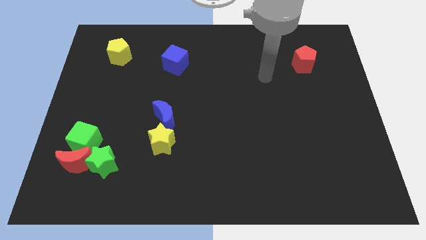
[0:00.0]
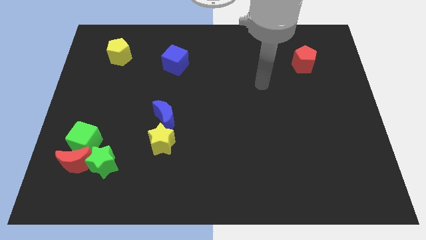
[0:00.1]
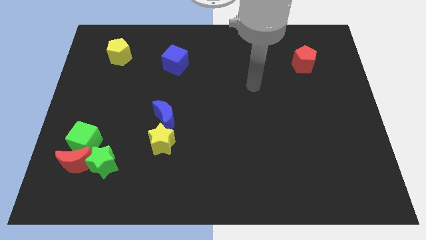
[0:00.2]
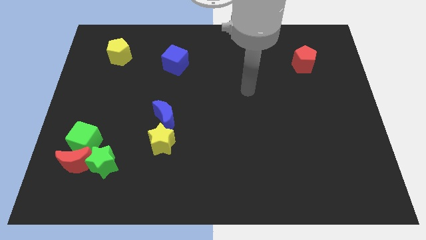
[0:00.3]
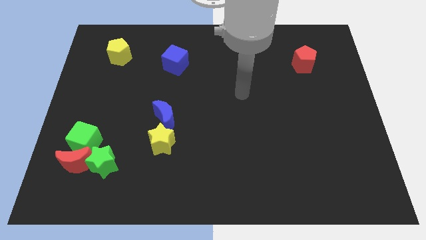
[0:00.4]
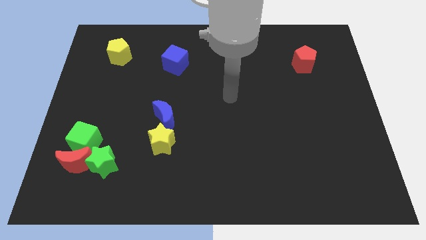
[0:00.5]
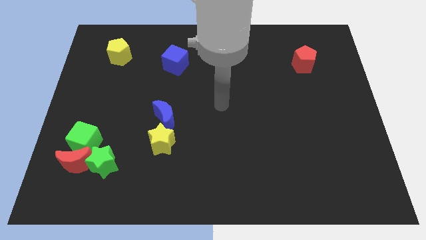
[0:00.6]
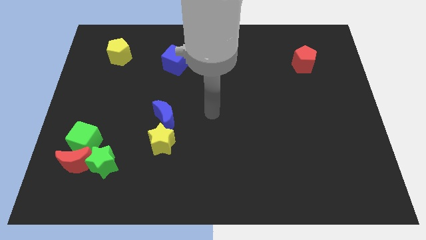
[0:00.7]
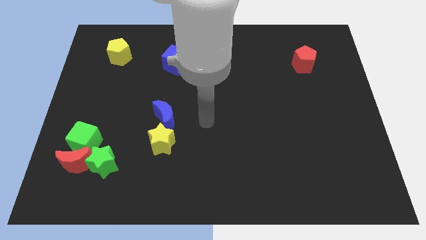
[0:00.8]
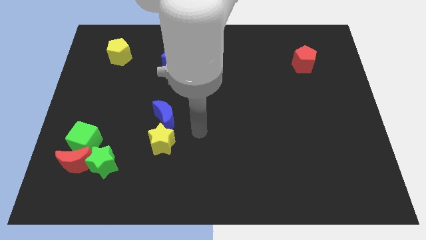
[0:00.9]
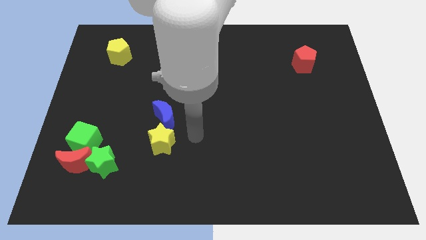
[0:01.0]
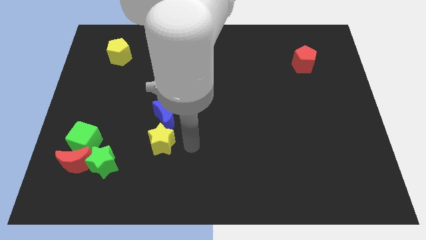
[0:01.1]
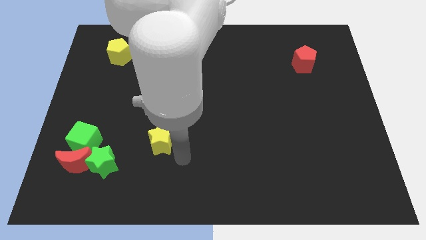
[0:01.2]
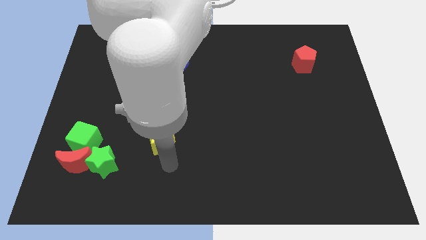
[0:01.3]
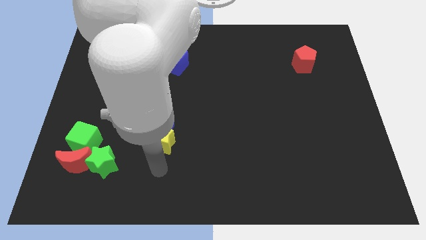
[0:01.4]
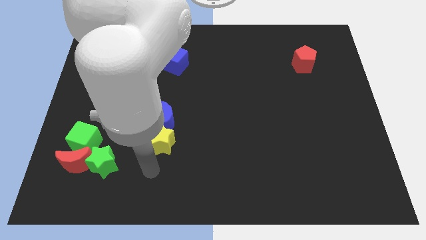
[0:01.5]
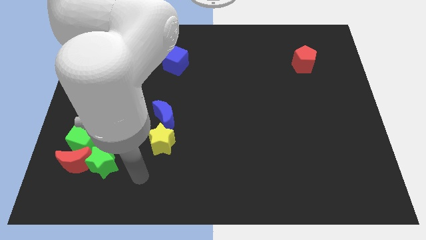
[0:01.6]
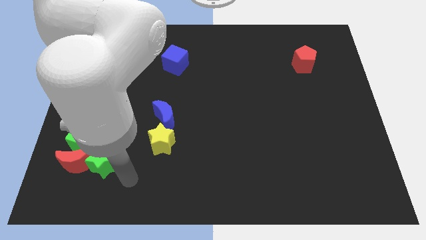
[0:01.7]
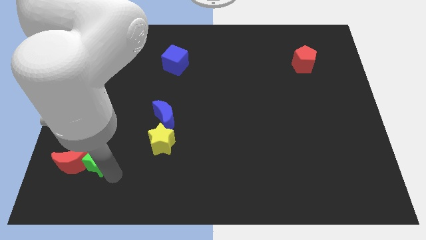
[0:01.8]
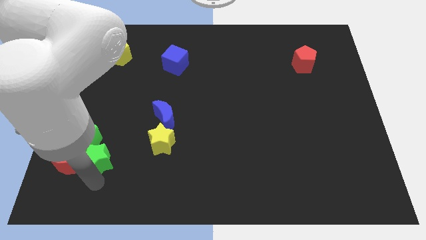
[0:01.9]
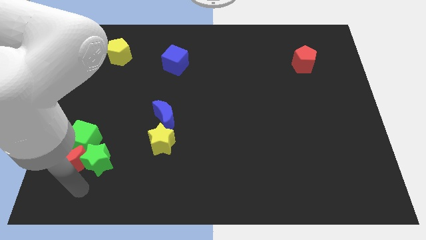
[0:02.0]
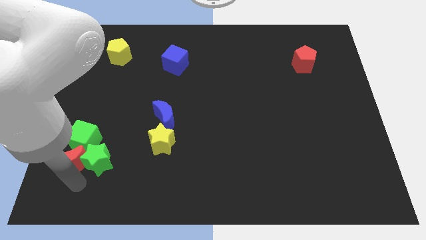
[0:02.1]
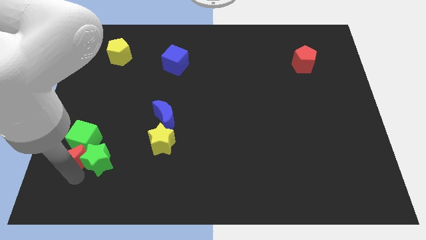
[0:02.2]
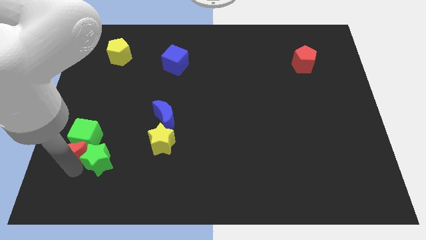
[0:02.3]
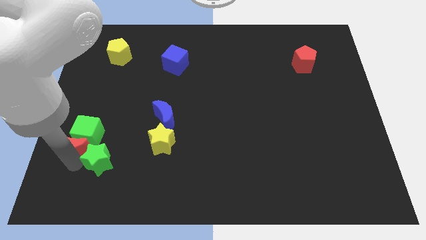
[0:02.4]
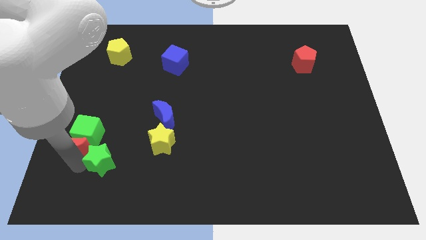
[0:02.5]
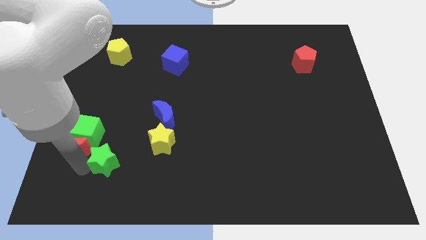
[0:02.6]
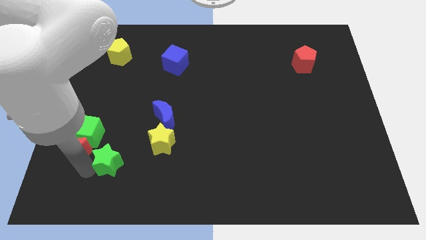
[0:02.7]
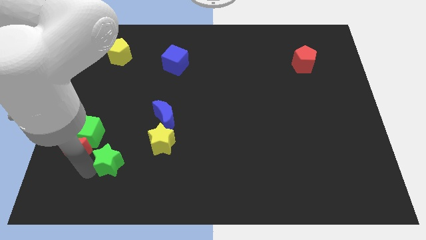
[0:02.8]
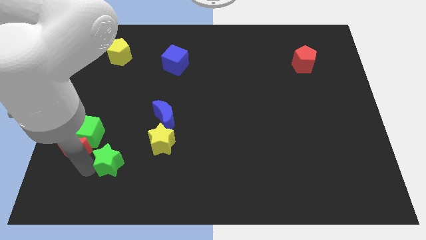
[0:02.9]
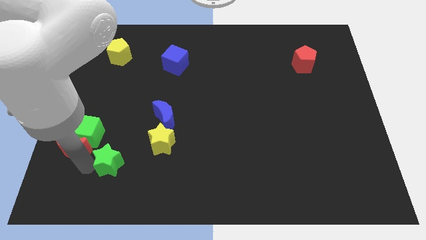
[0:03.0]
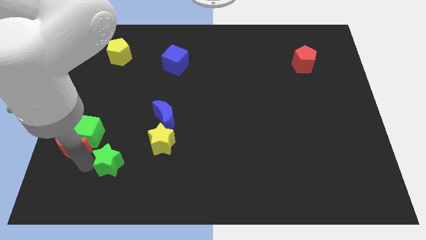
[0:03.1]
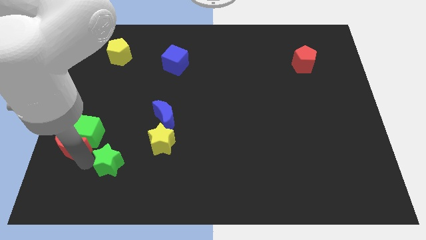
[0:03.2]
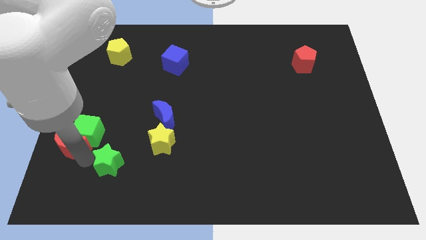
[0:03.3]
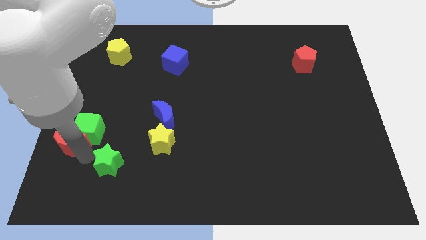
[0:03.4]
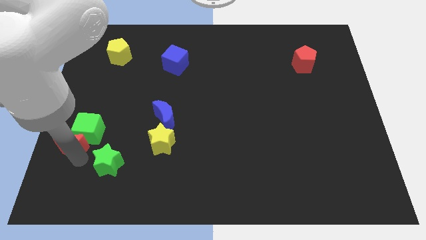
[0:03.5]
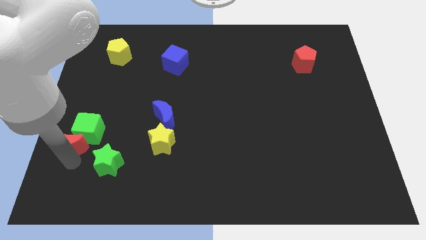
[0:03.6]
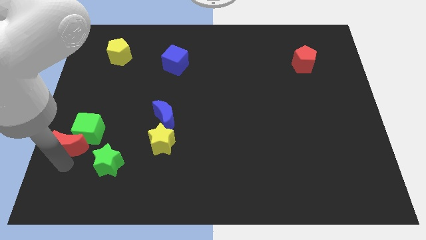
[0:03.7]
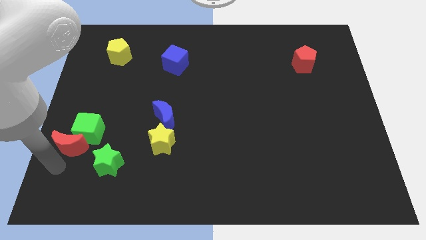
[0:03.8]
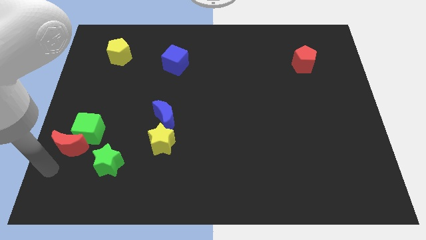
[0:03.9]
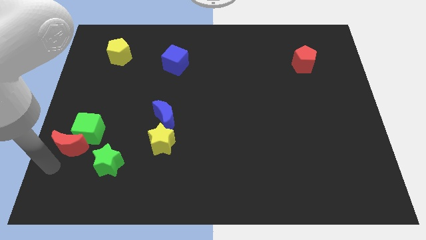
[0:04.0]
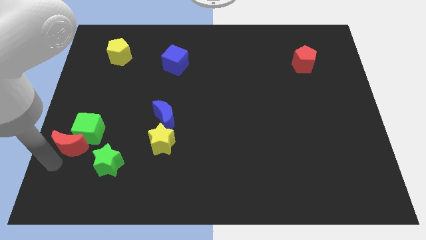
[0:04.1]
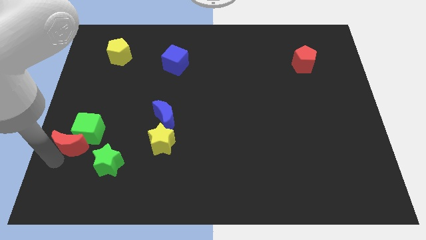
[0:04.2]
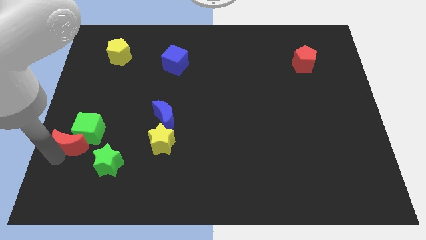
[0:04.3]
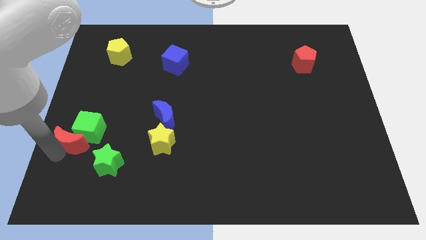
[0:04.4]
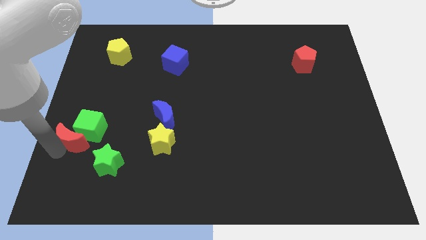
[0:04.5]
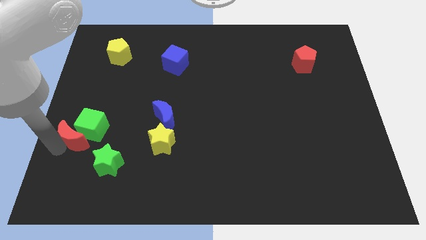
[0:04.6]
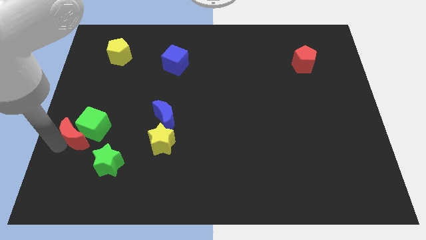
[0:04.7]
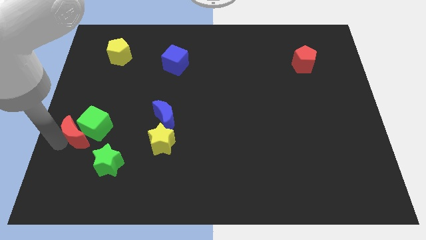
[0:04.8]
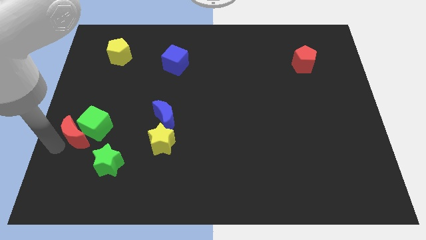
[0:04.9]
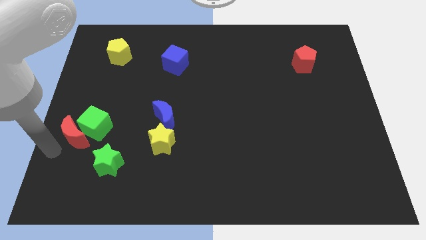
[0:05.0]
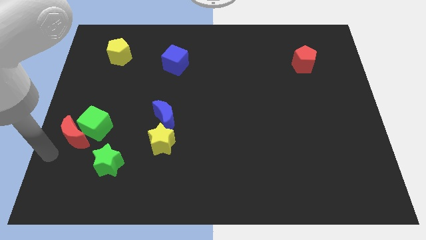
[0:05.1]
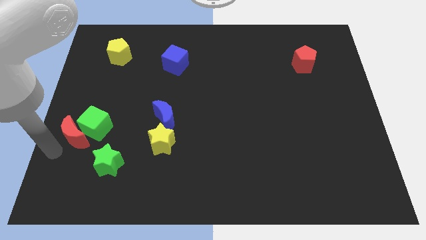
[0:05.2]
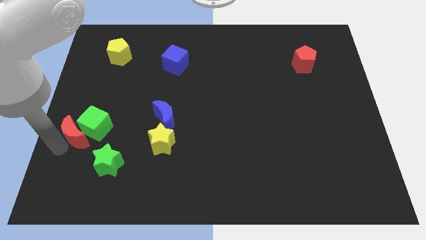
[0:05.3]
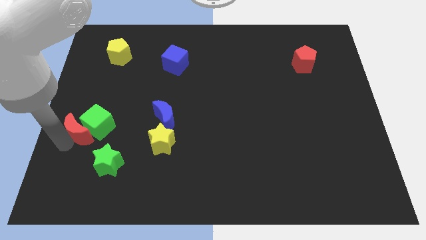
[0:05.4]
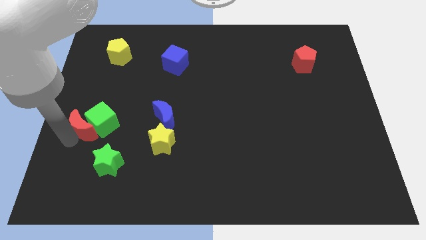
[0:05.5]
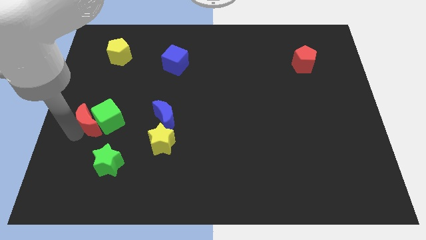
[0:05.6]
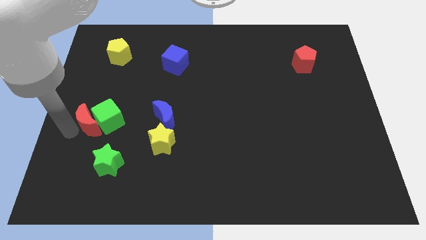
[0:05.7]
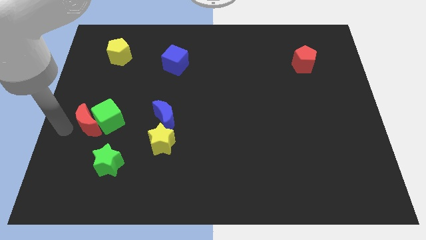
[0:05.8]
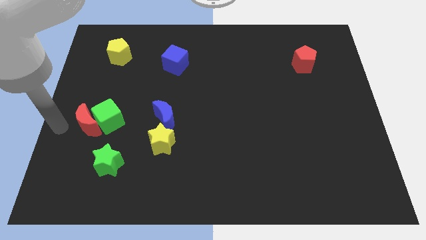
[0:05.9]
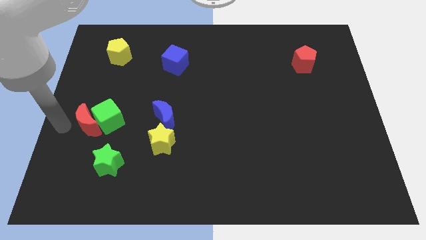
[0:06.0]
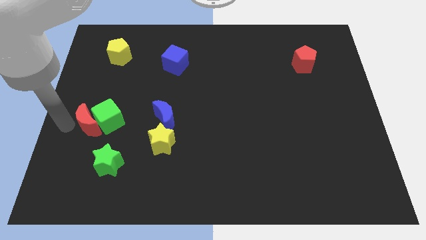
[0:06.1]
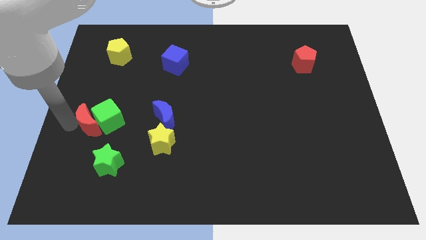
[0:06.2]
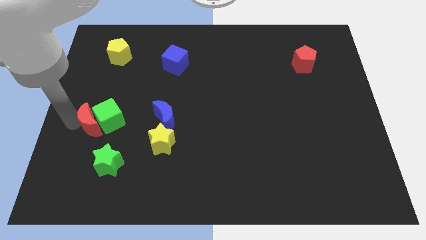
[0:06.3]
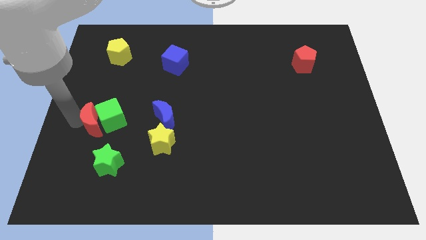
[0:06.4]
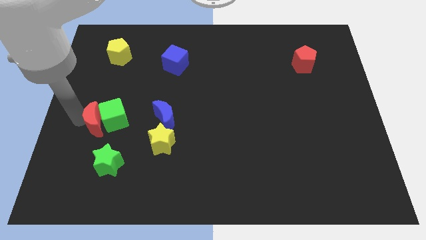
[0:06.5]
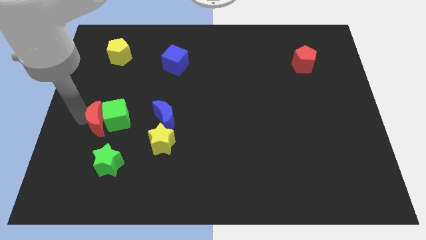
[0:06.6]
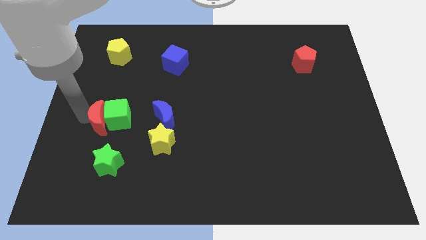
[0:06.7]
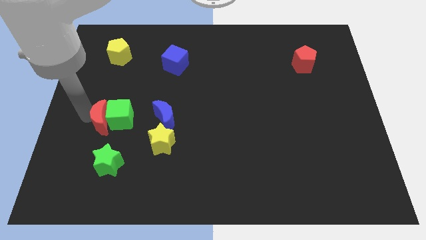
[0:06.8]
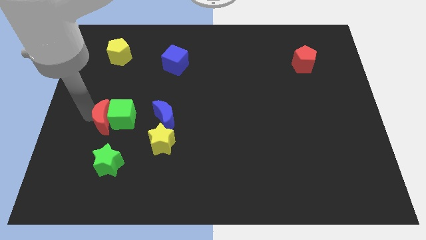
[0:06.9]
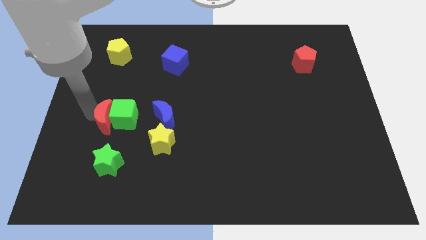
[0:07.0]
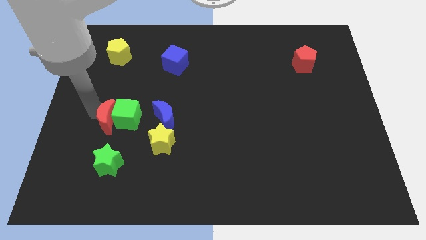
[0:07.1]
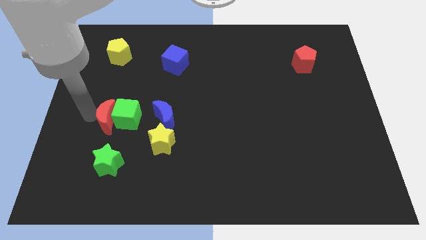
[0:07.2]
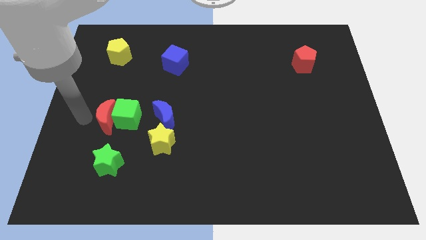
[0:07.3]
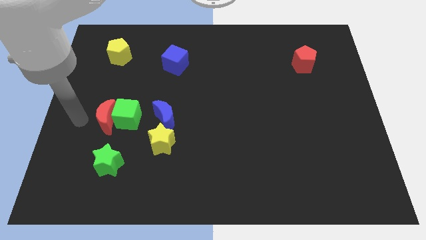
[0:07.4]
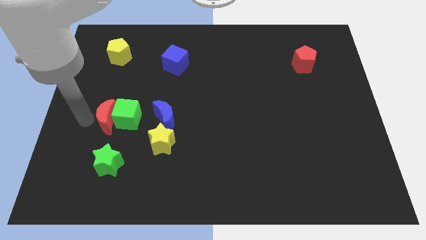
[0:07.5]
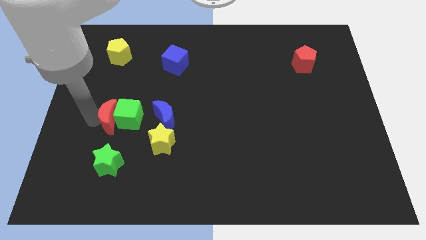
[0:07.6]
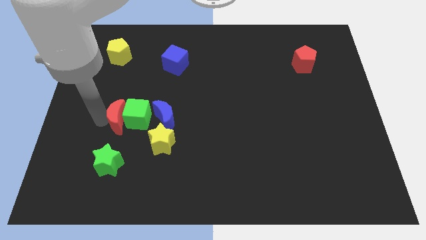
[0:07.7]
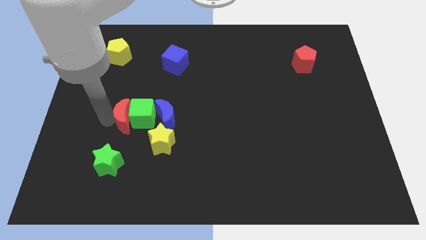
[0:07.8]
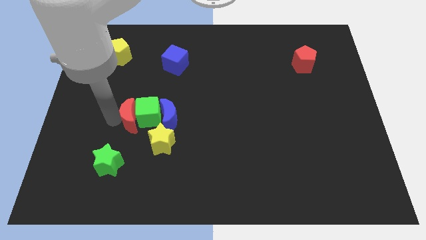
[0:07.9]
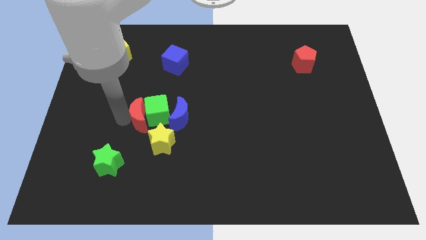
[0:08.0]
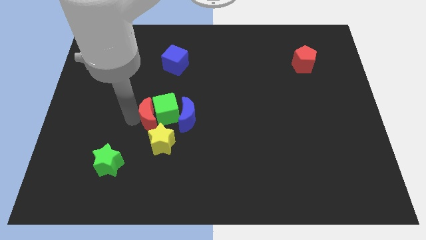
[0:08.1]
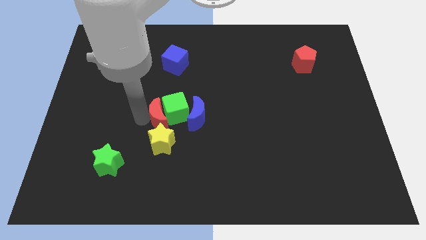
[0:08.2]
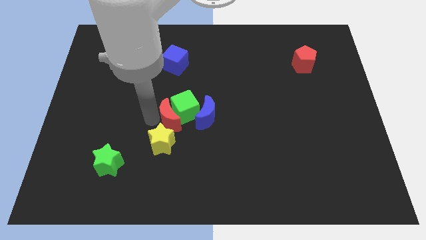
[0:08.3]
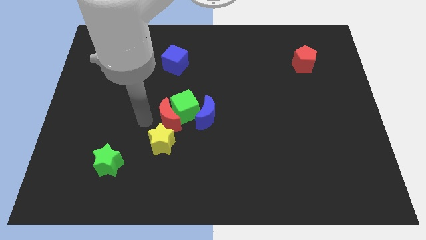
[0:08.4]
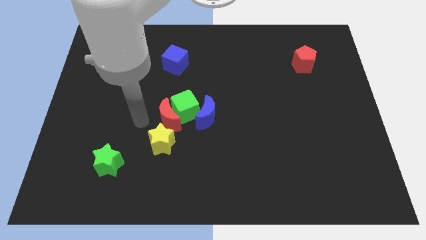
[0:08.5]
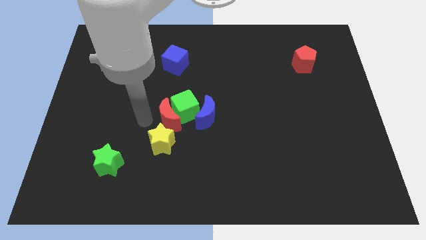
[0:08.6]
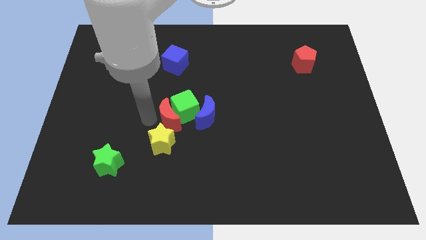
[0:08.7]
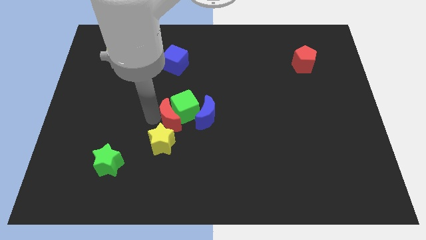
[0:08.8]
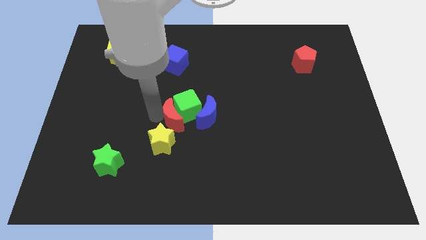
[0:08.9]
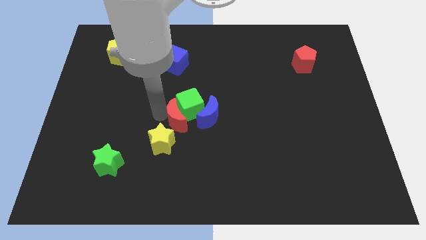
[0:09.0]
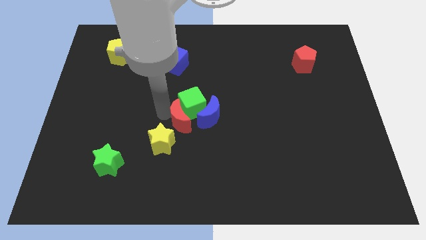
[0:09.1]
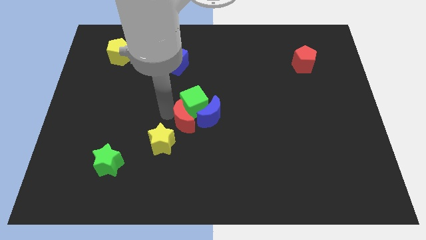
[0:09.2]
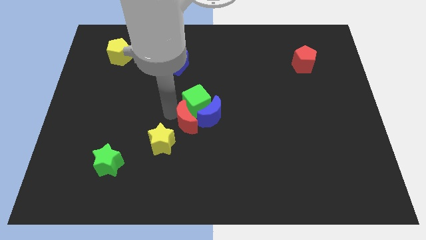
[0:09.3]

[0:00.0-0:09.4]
push the red moon towards the blue moon
